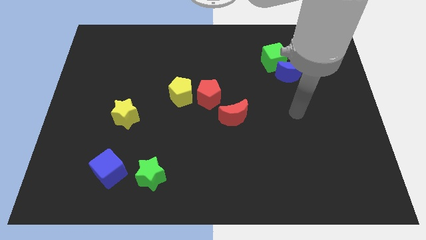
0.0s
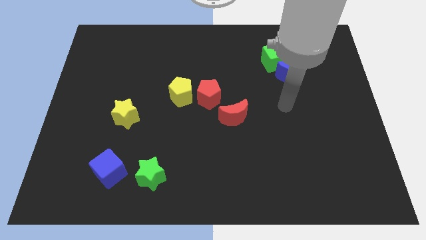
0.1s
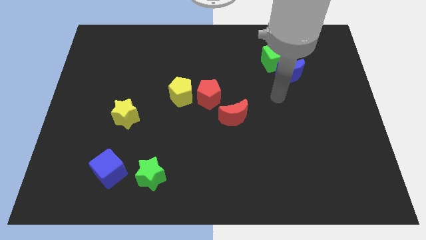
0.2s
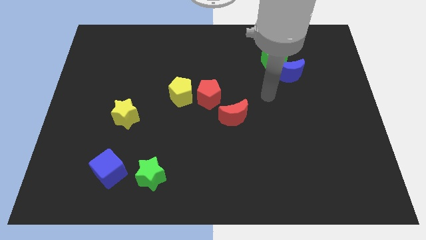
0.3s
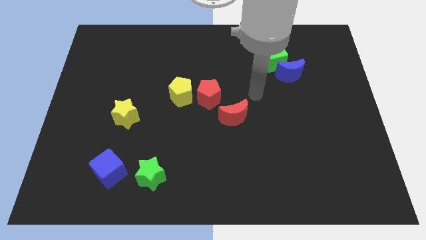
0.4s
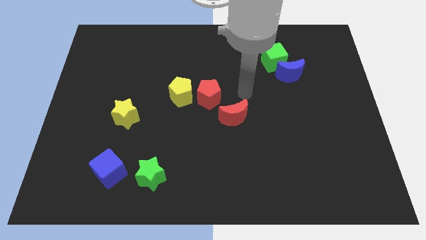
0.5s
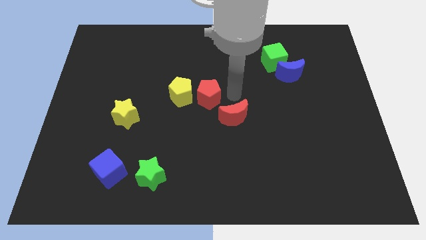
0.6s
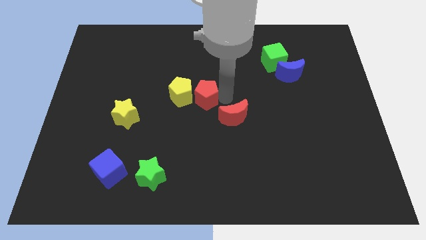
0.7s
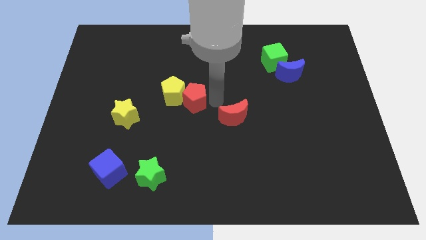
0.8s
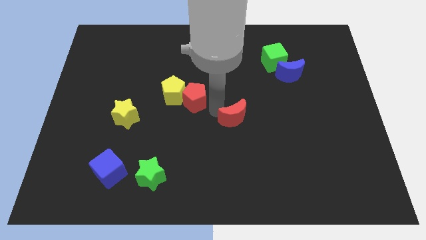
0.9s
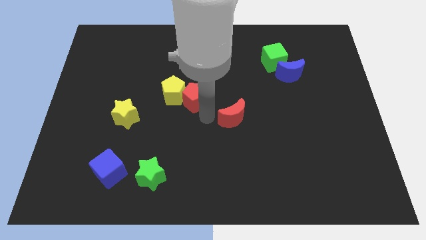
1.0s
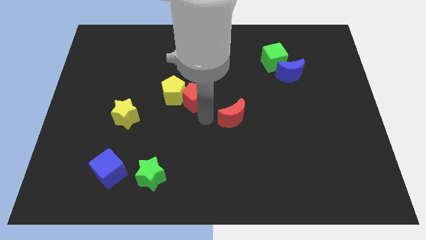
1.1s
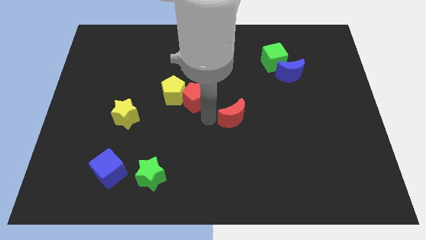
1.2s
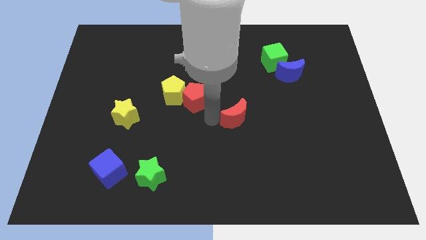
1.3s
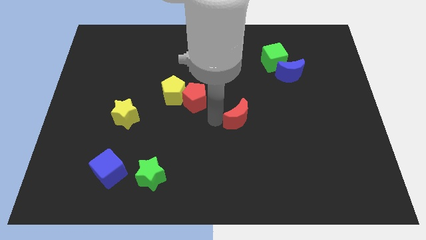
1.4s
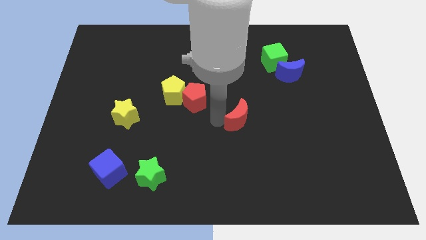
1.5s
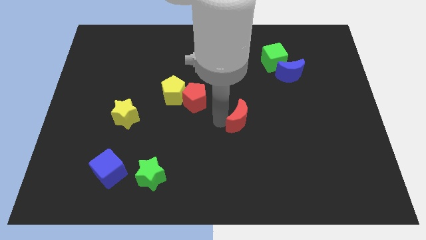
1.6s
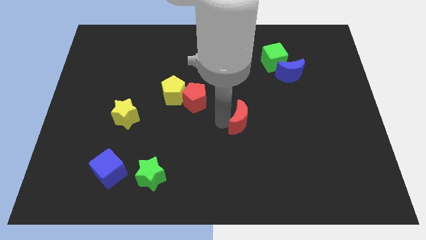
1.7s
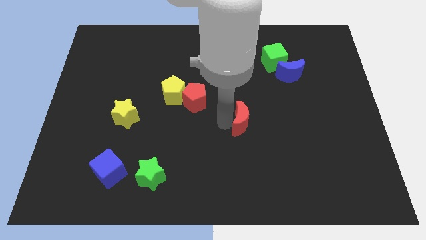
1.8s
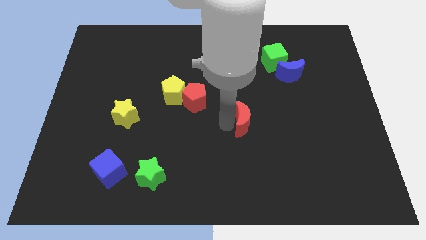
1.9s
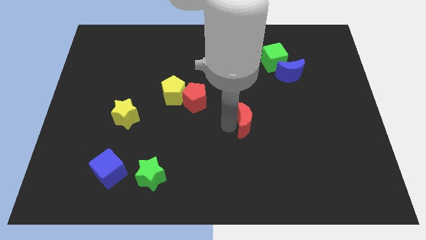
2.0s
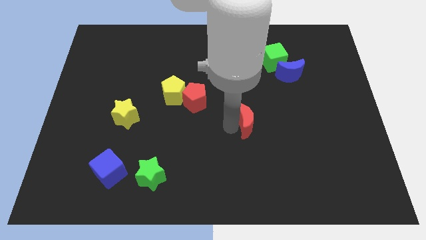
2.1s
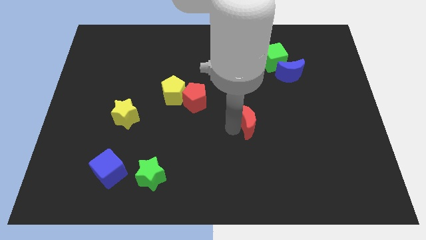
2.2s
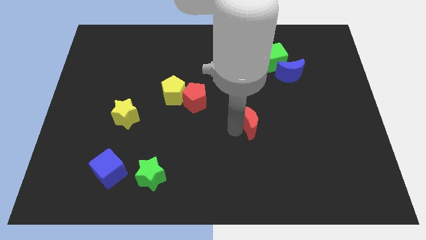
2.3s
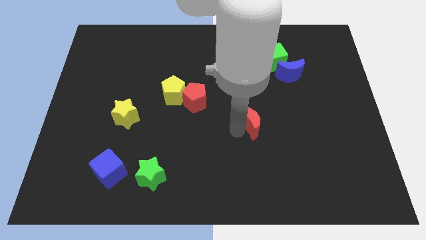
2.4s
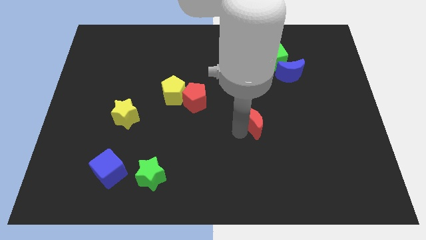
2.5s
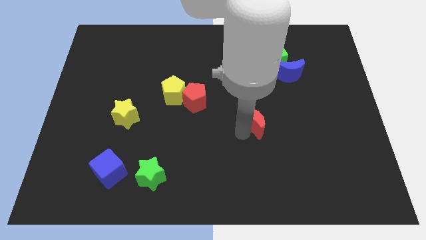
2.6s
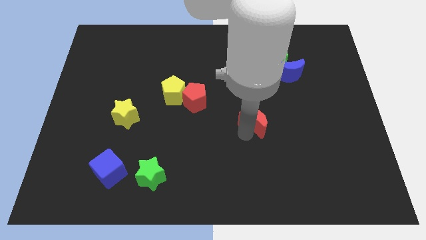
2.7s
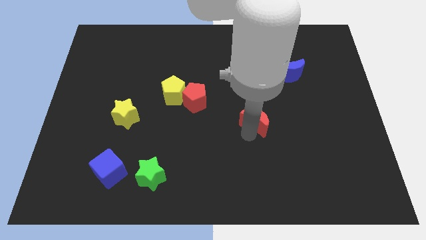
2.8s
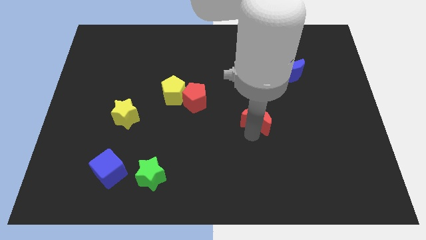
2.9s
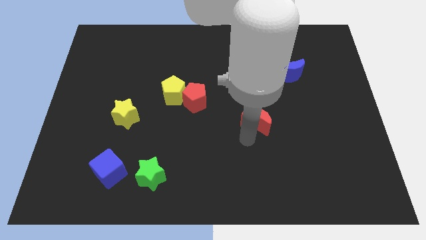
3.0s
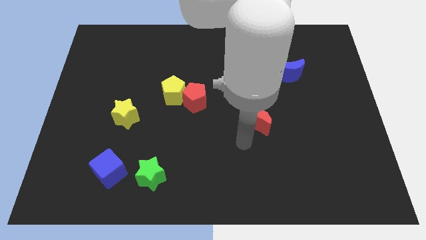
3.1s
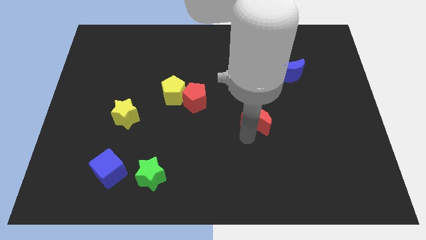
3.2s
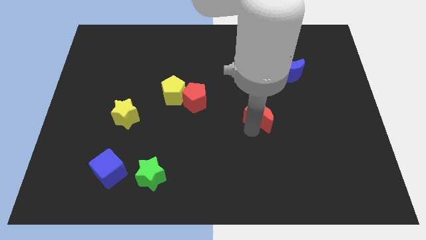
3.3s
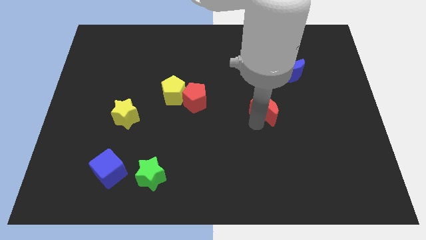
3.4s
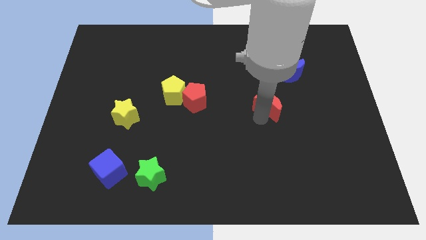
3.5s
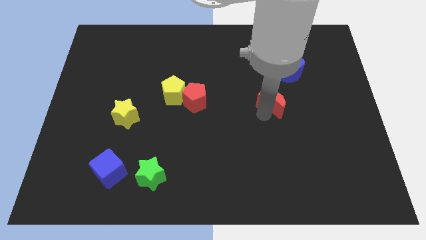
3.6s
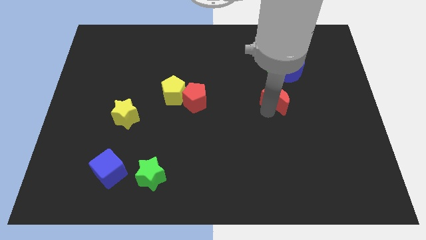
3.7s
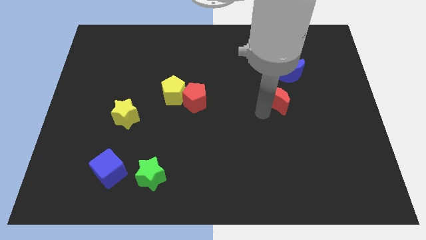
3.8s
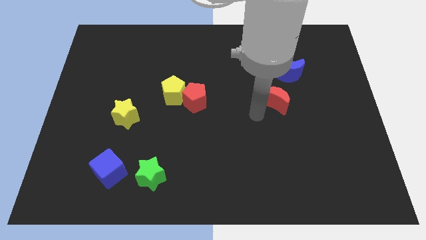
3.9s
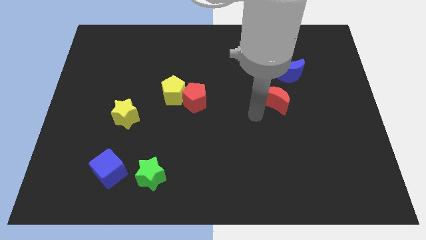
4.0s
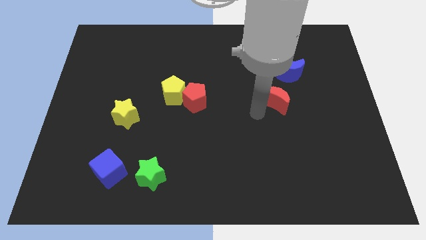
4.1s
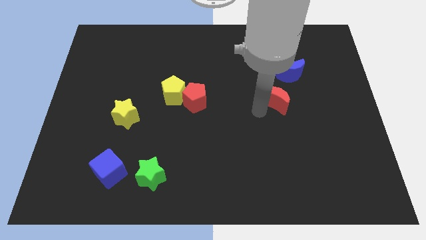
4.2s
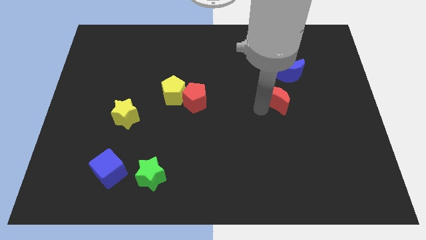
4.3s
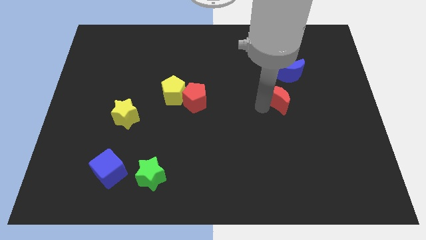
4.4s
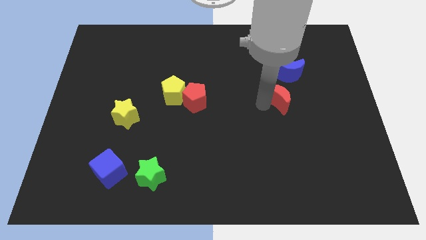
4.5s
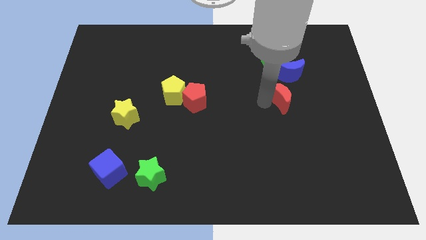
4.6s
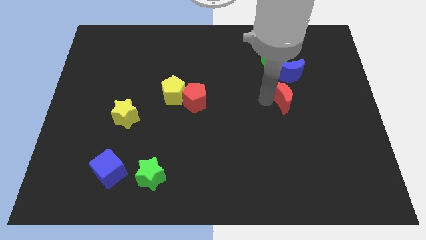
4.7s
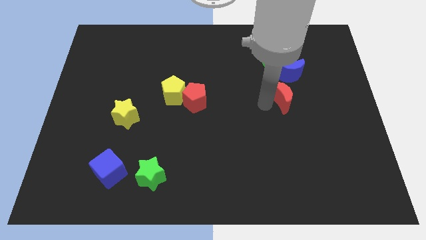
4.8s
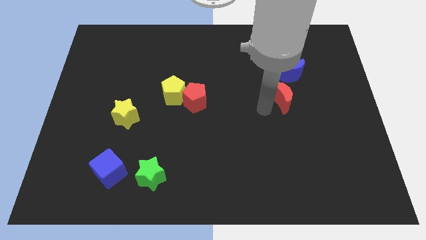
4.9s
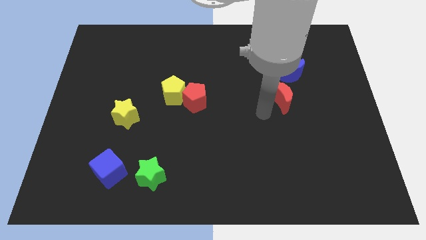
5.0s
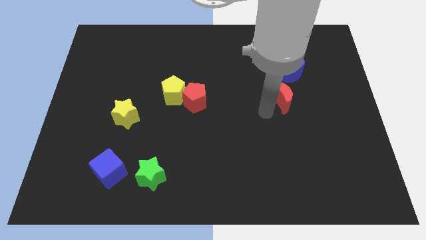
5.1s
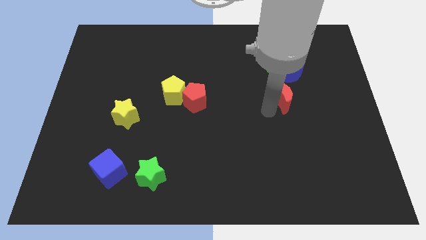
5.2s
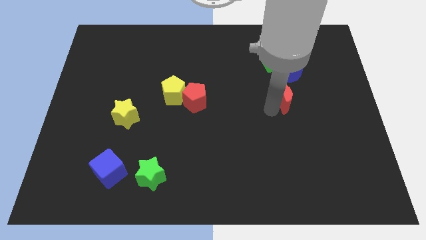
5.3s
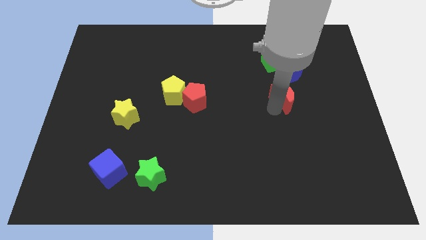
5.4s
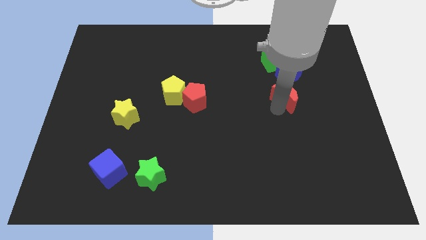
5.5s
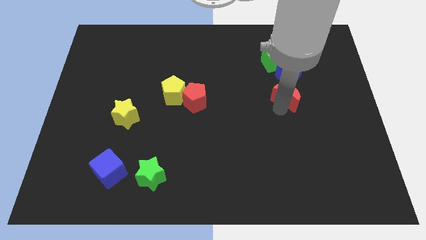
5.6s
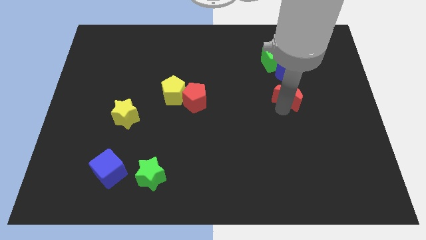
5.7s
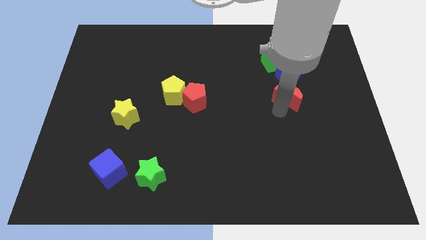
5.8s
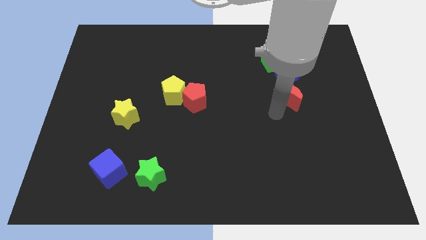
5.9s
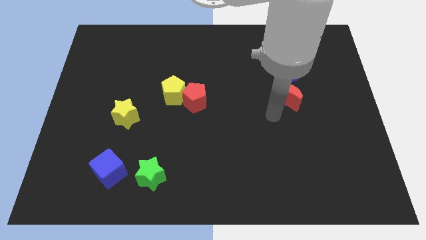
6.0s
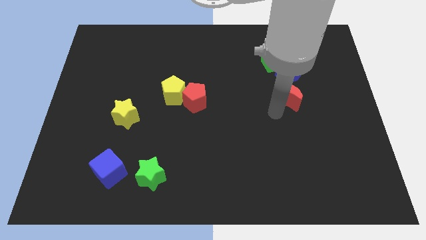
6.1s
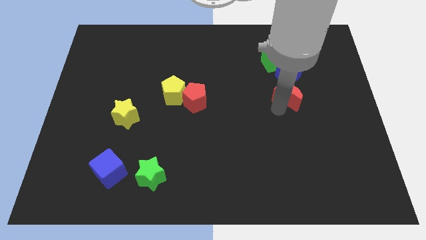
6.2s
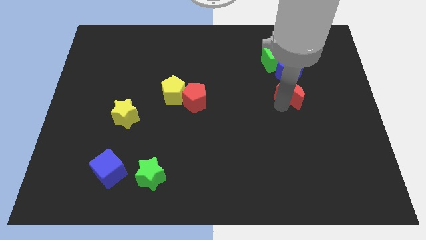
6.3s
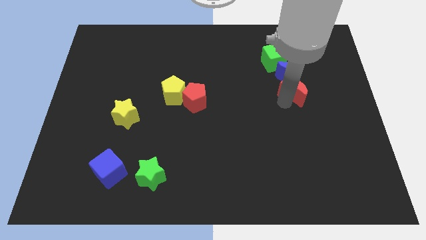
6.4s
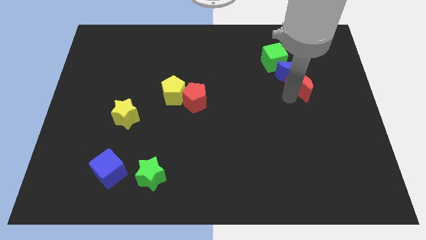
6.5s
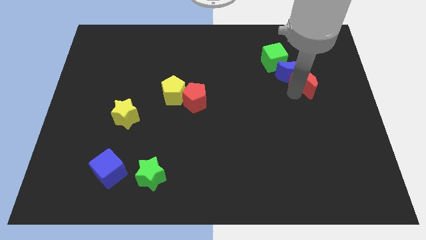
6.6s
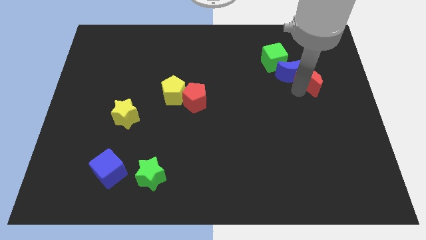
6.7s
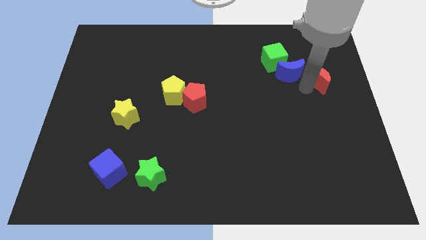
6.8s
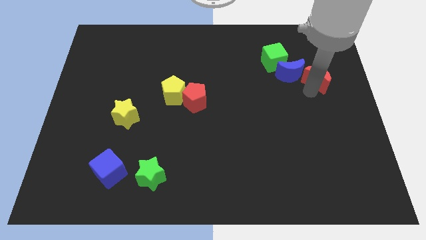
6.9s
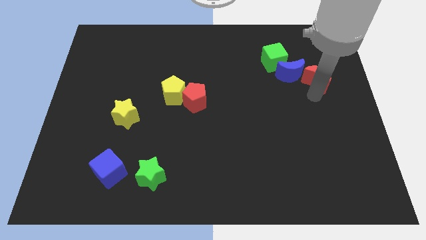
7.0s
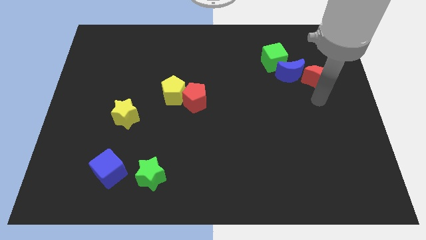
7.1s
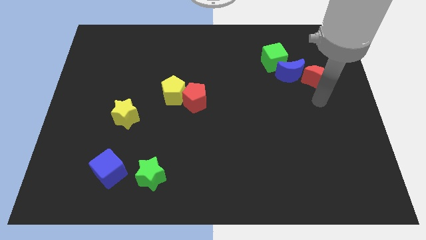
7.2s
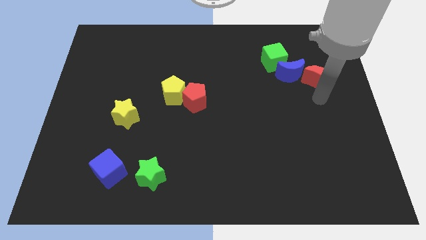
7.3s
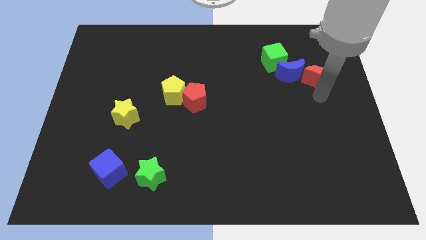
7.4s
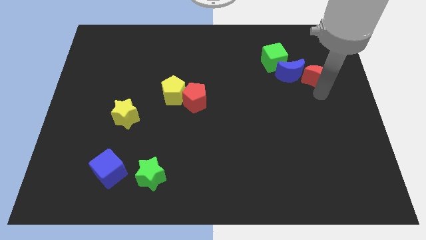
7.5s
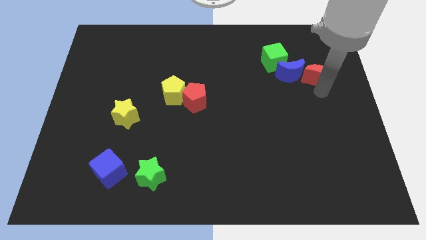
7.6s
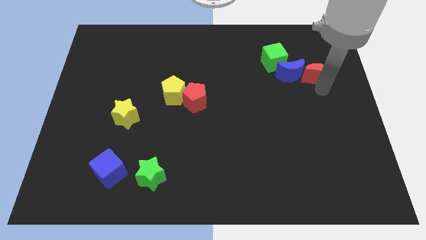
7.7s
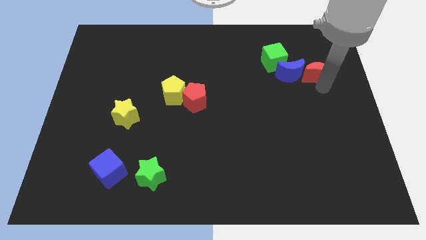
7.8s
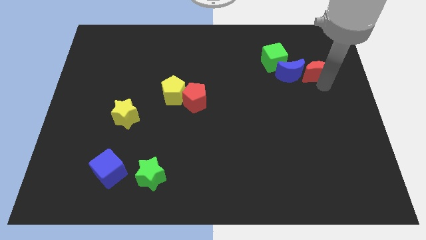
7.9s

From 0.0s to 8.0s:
move the red moon just right of the green cube
